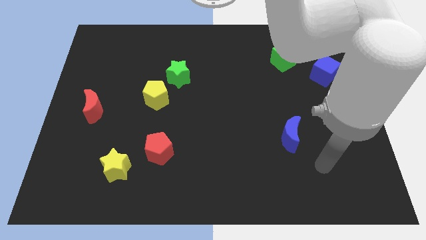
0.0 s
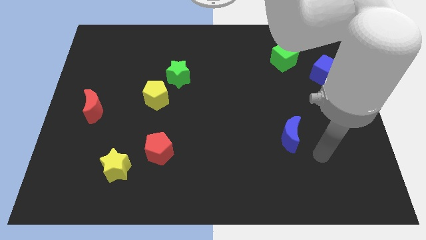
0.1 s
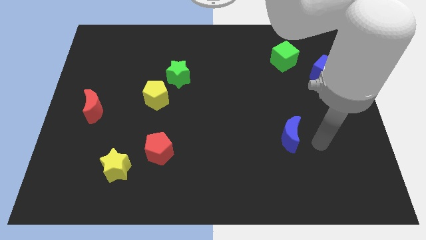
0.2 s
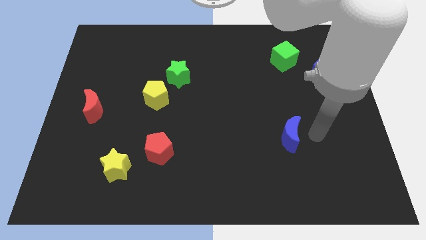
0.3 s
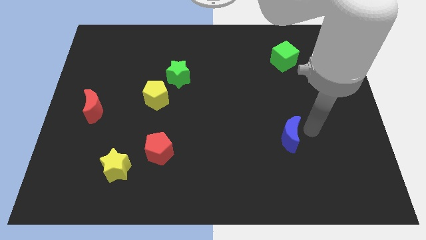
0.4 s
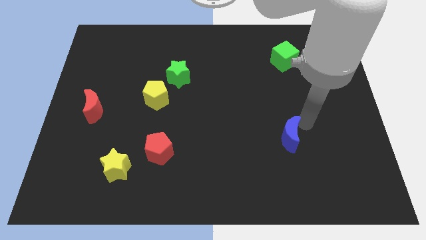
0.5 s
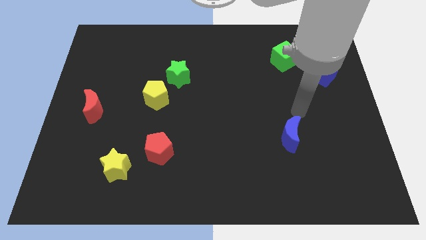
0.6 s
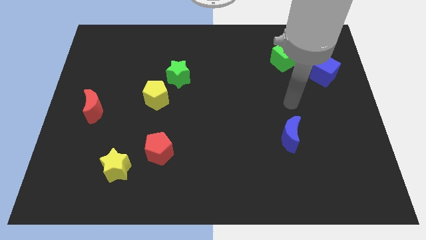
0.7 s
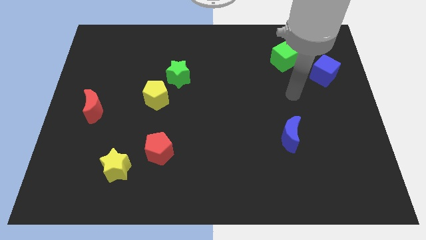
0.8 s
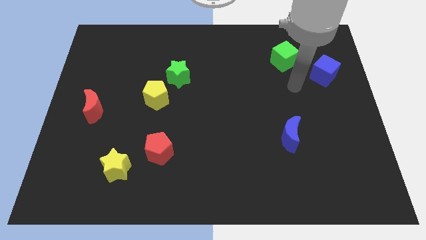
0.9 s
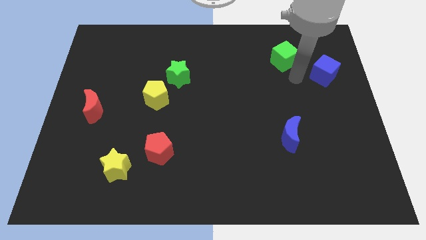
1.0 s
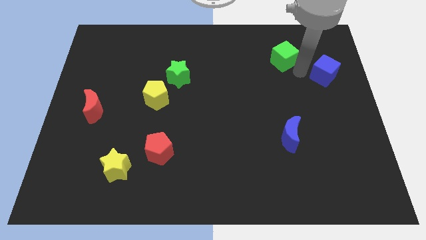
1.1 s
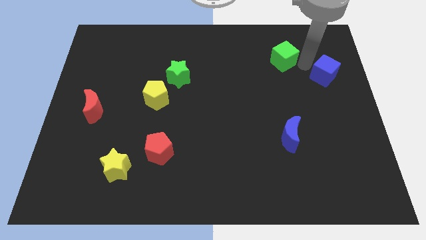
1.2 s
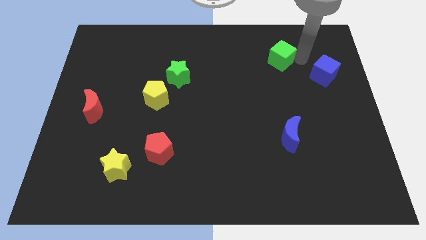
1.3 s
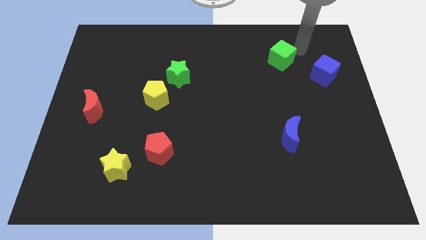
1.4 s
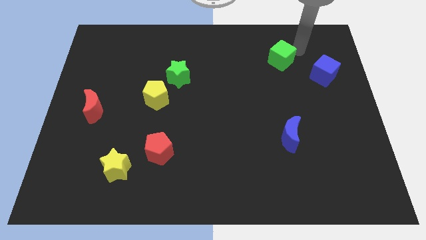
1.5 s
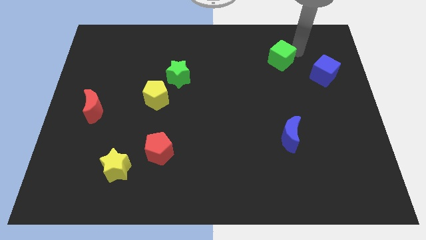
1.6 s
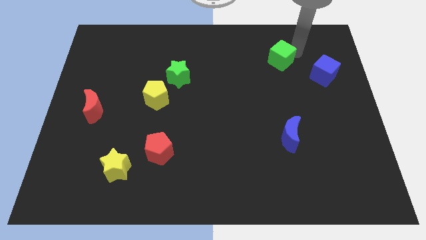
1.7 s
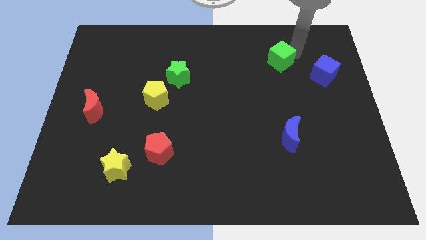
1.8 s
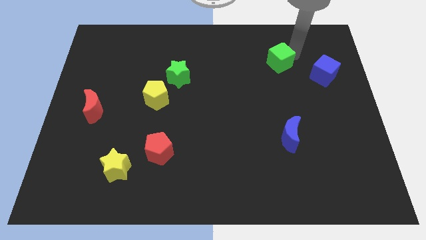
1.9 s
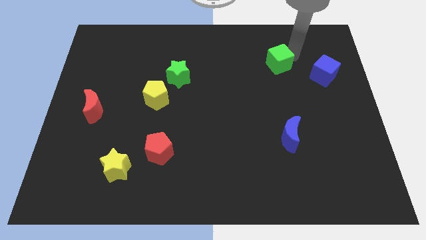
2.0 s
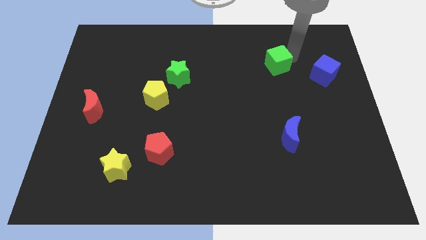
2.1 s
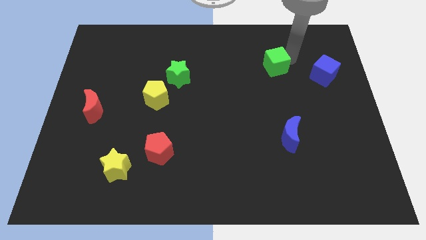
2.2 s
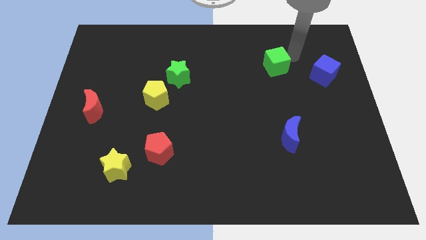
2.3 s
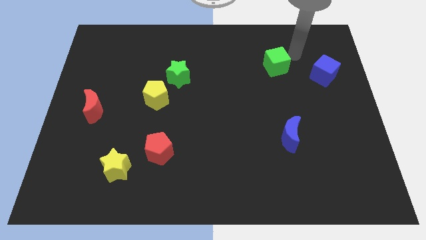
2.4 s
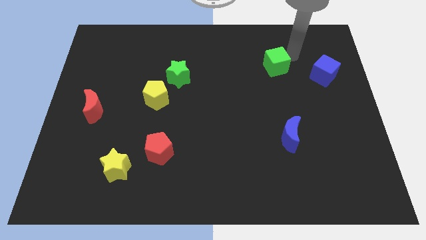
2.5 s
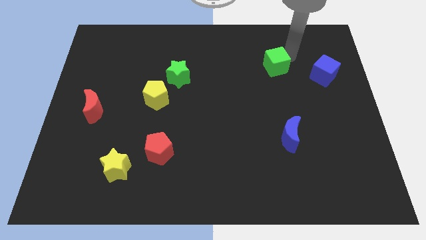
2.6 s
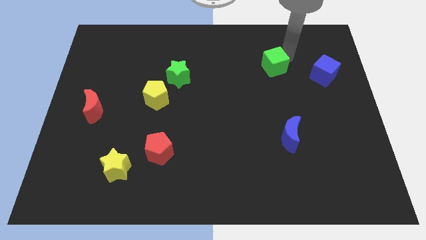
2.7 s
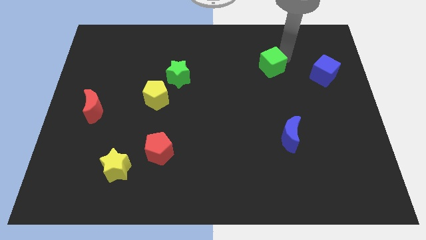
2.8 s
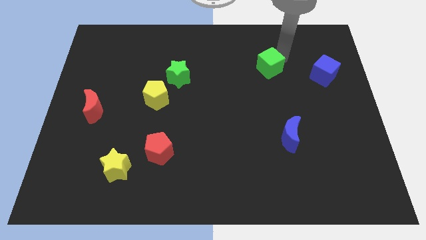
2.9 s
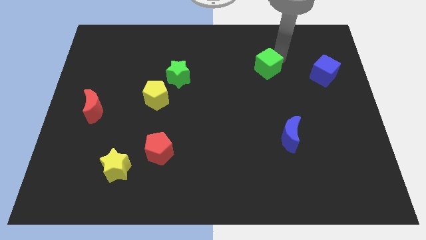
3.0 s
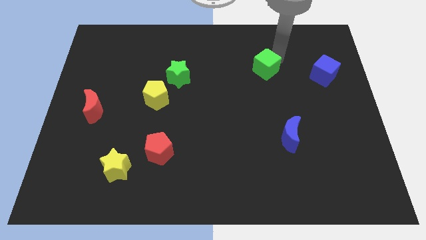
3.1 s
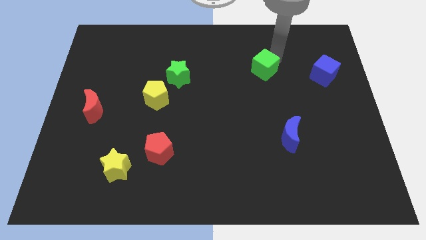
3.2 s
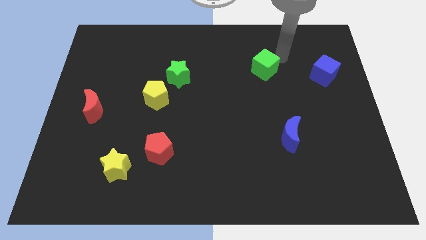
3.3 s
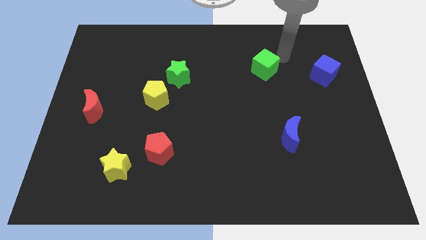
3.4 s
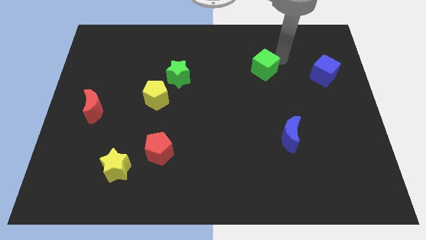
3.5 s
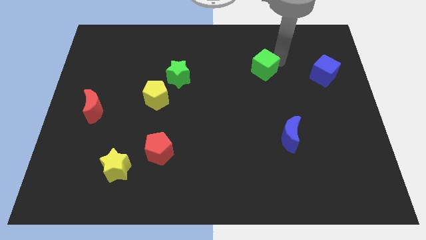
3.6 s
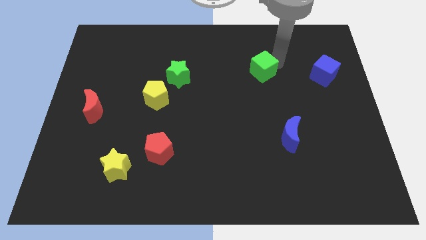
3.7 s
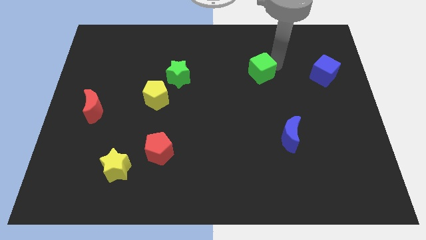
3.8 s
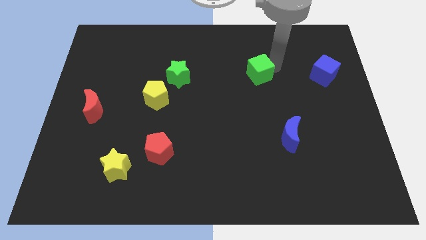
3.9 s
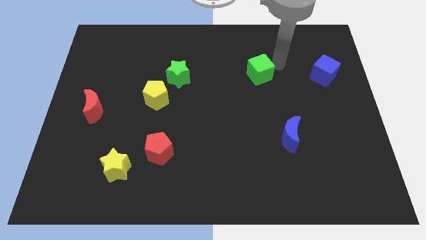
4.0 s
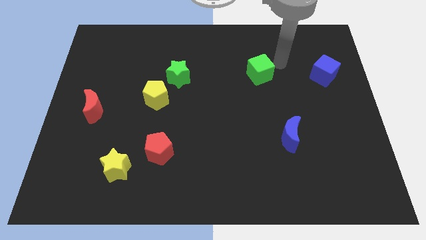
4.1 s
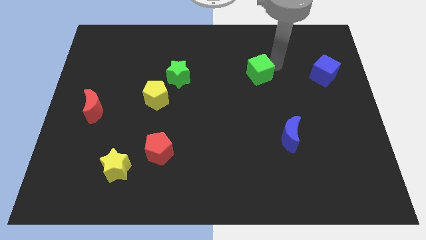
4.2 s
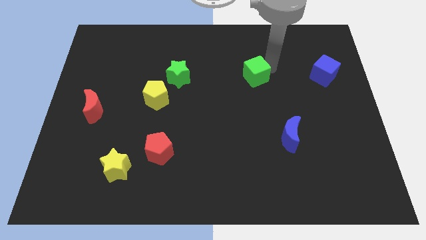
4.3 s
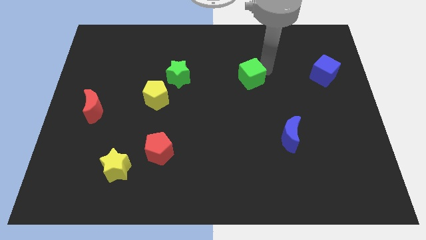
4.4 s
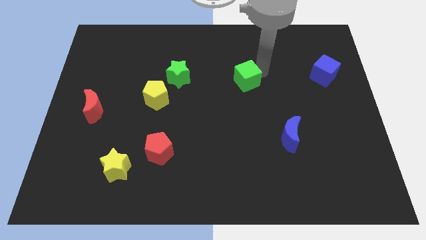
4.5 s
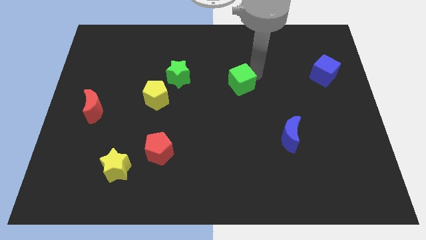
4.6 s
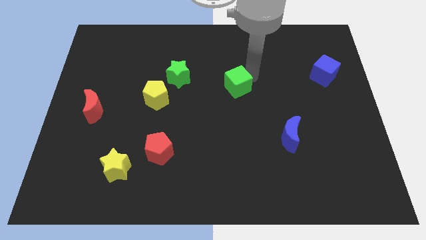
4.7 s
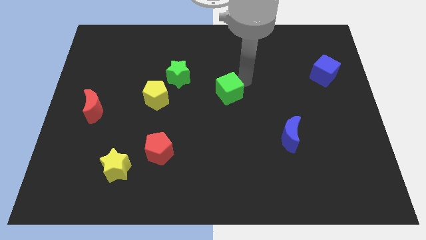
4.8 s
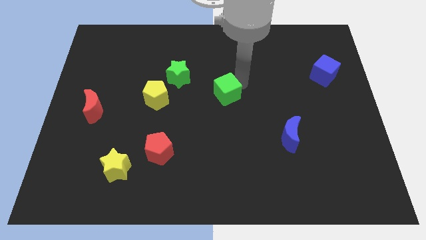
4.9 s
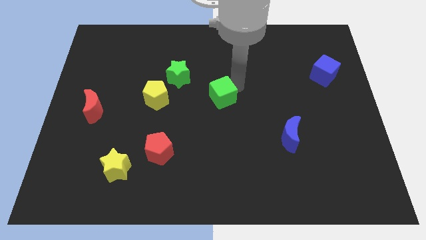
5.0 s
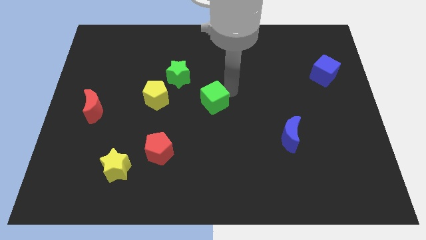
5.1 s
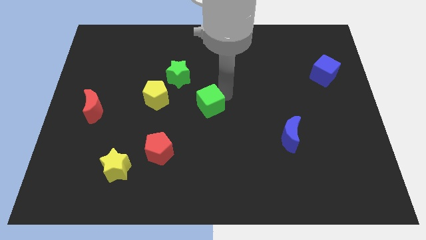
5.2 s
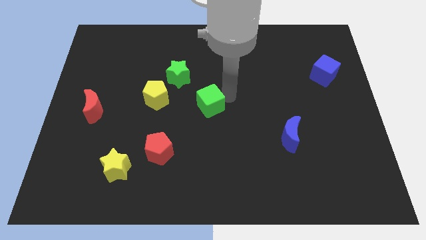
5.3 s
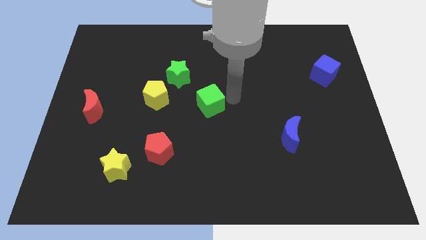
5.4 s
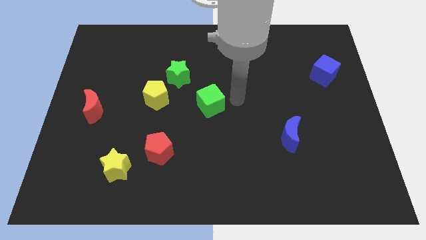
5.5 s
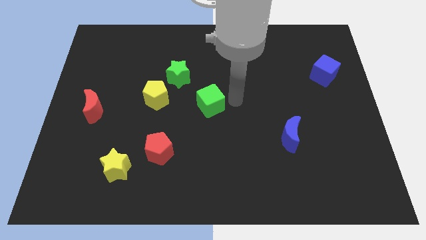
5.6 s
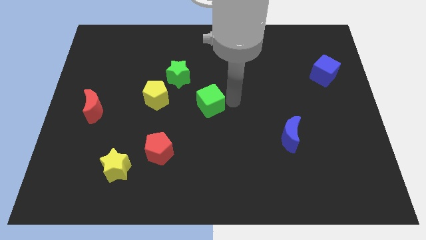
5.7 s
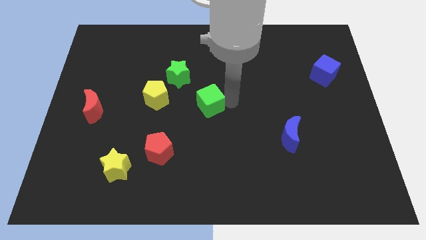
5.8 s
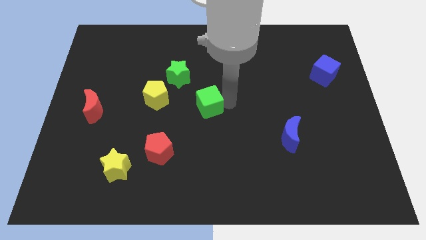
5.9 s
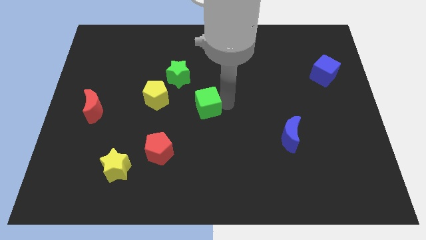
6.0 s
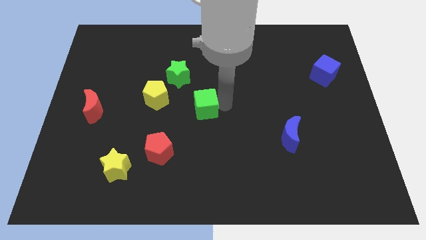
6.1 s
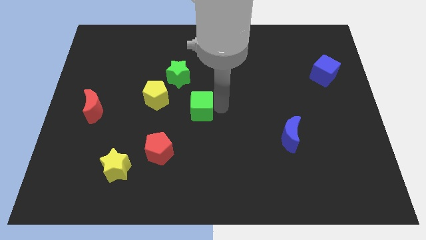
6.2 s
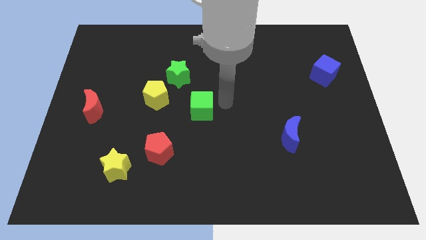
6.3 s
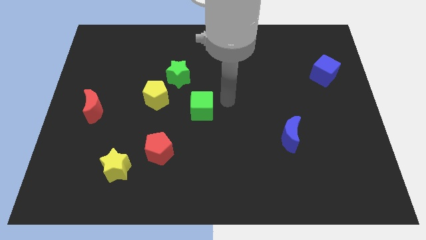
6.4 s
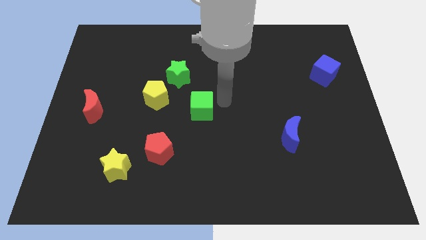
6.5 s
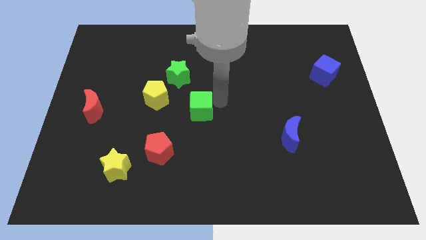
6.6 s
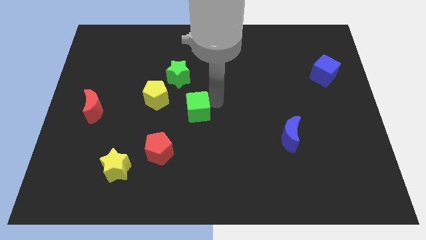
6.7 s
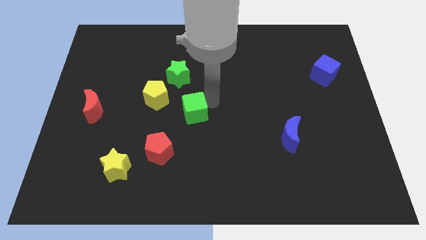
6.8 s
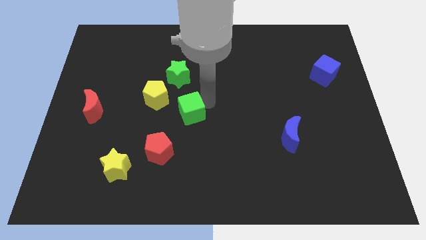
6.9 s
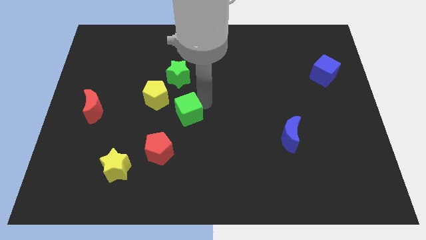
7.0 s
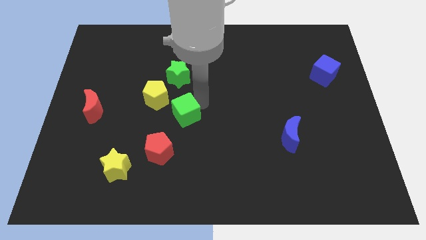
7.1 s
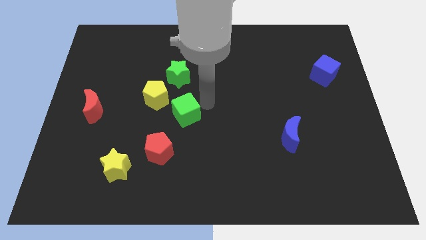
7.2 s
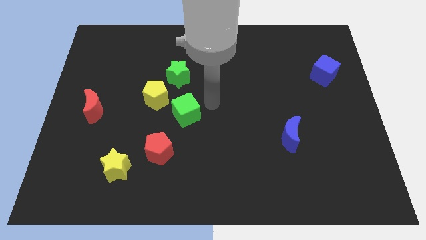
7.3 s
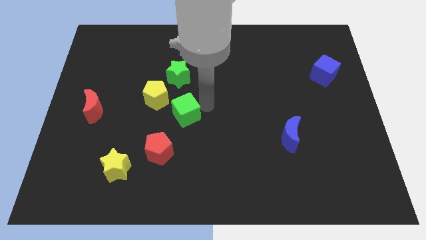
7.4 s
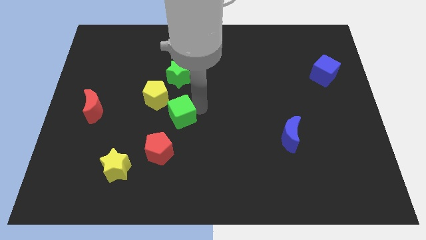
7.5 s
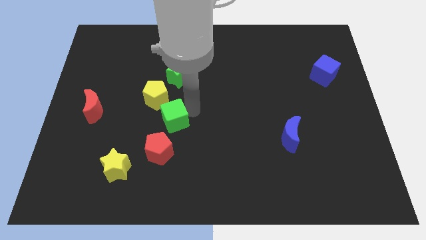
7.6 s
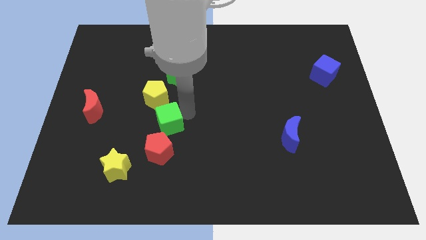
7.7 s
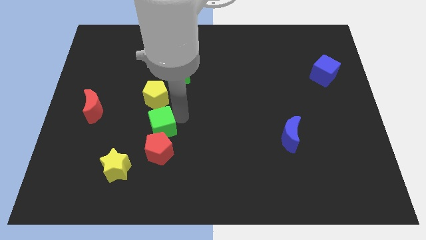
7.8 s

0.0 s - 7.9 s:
slide the green cube to the top left of the red pentagon
